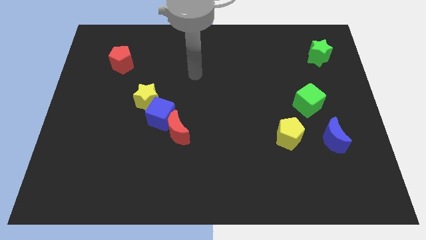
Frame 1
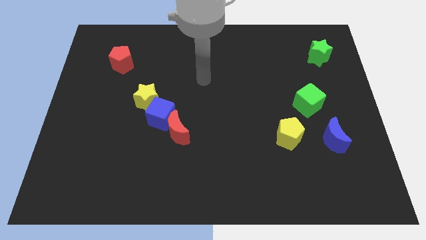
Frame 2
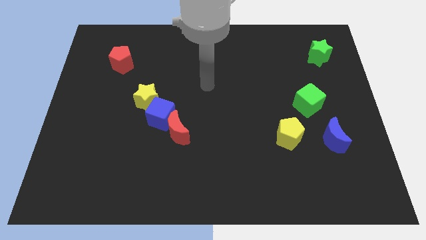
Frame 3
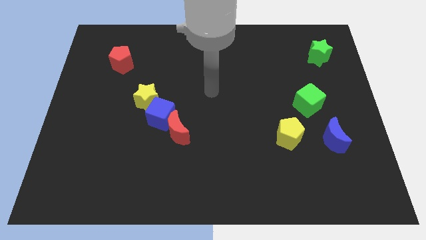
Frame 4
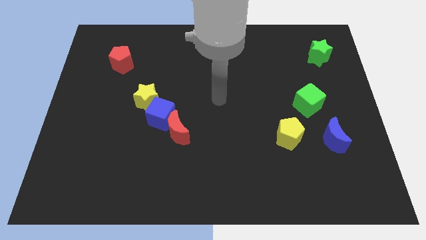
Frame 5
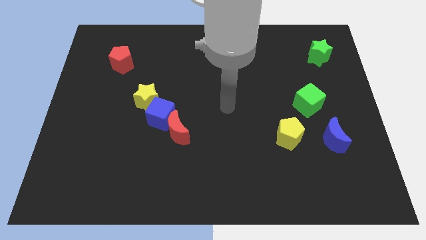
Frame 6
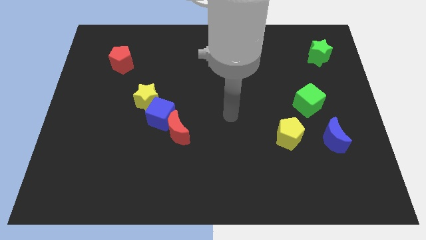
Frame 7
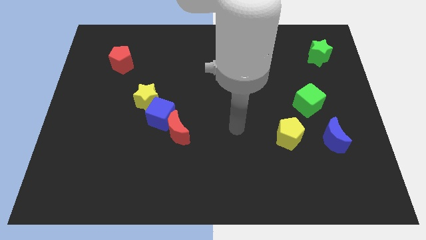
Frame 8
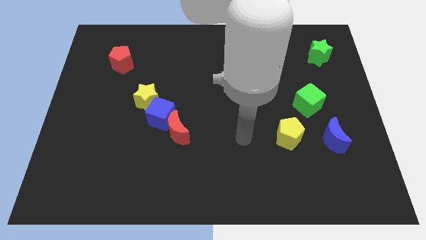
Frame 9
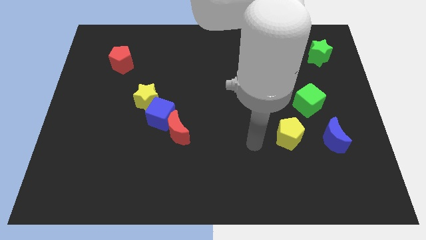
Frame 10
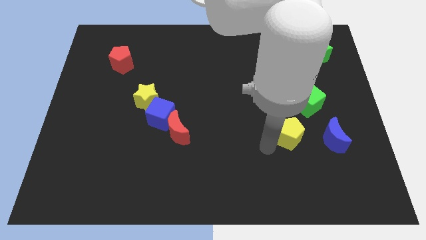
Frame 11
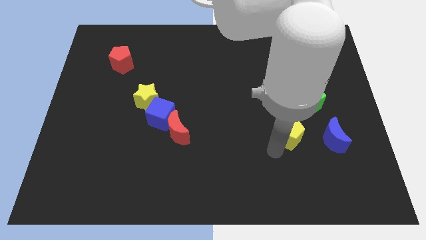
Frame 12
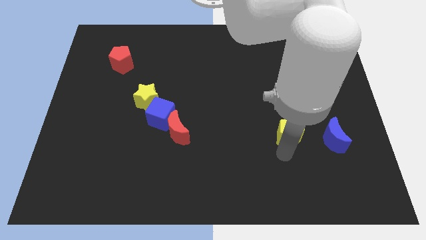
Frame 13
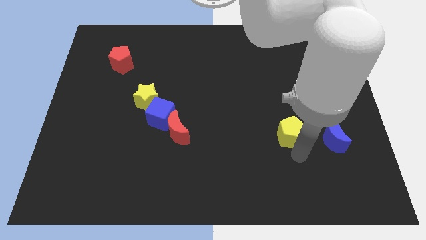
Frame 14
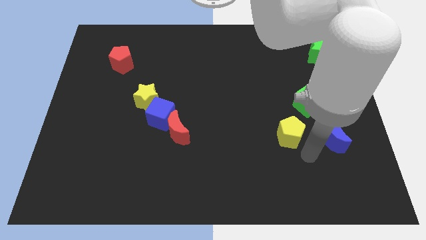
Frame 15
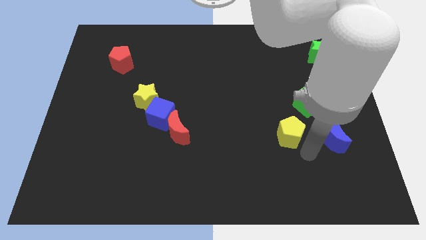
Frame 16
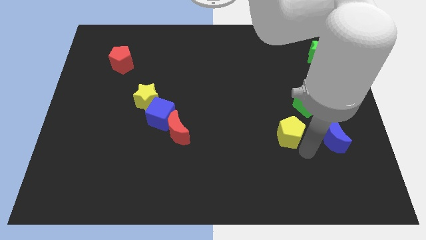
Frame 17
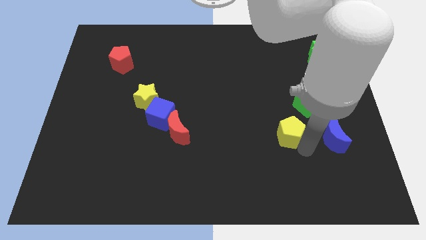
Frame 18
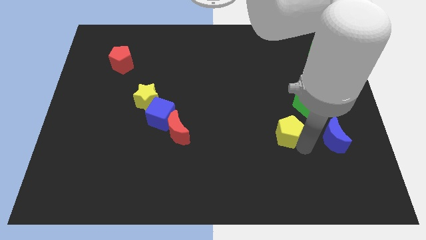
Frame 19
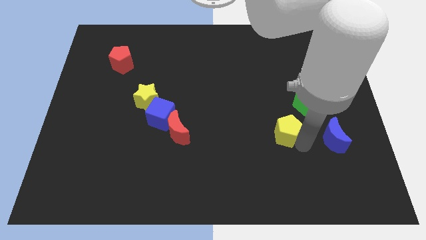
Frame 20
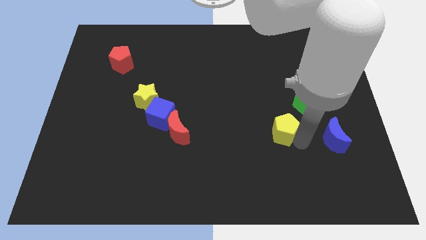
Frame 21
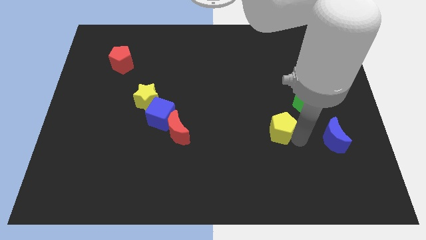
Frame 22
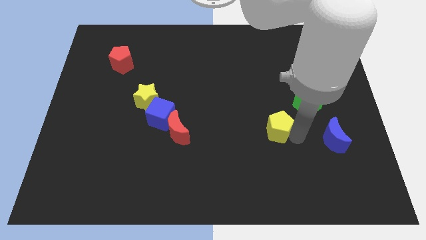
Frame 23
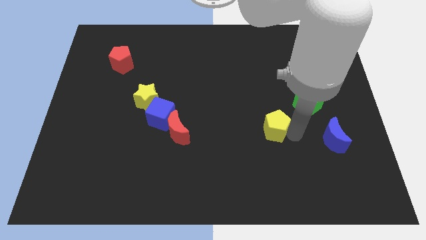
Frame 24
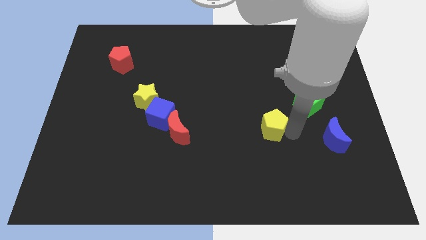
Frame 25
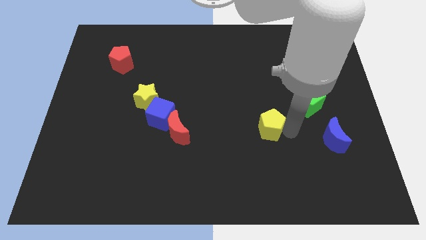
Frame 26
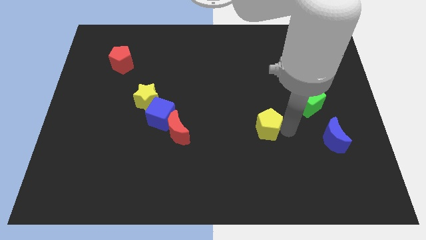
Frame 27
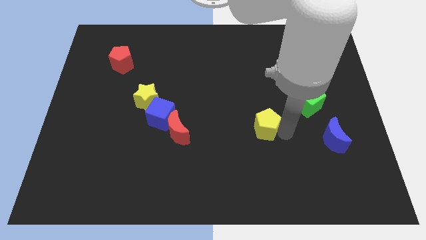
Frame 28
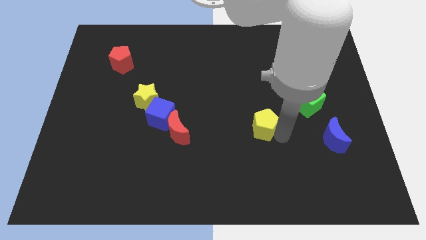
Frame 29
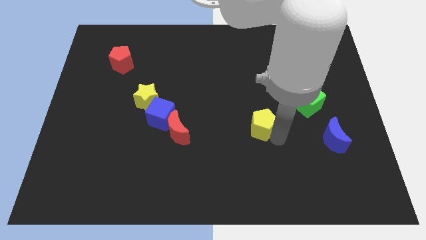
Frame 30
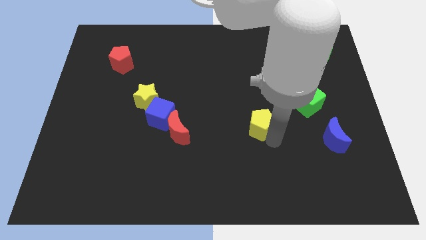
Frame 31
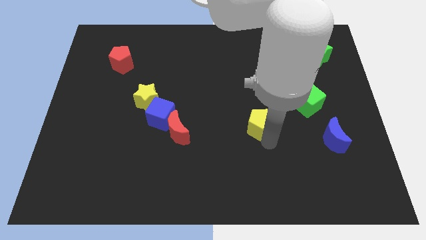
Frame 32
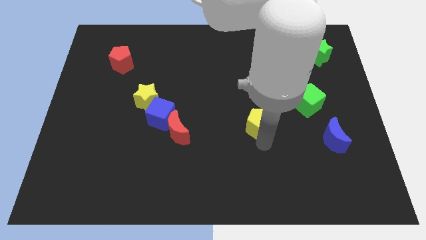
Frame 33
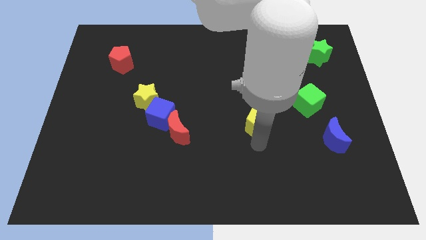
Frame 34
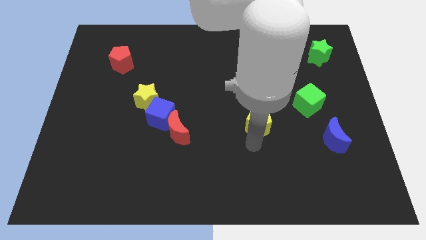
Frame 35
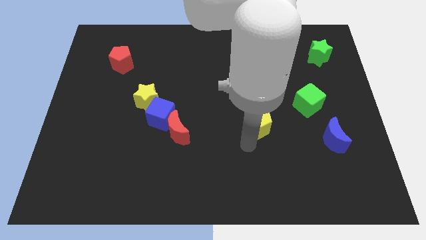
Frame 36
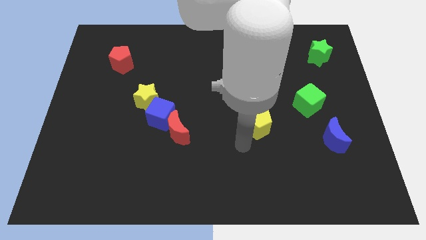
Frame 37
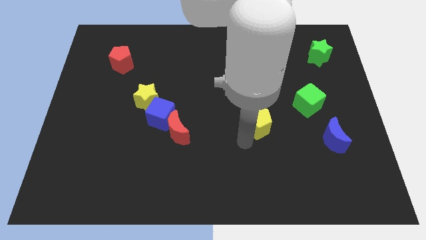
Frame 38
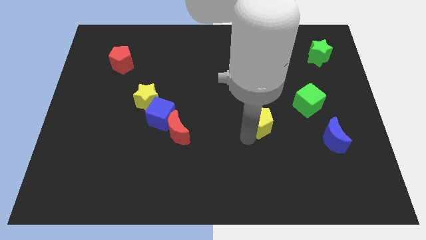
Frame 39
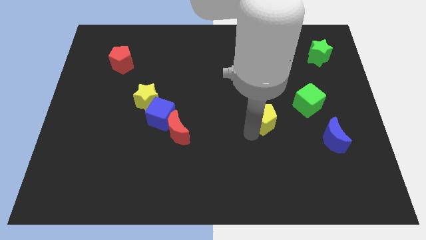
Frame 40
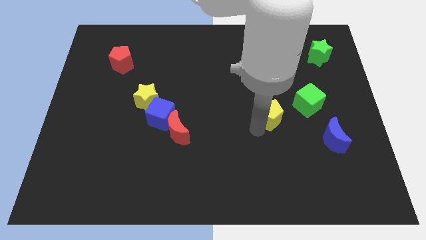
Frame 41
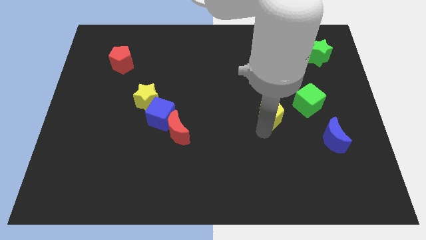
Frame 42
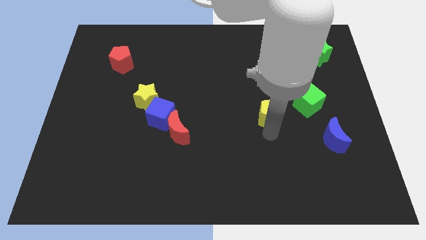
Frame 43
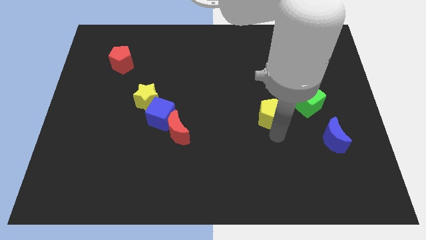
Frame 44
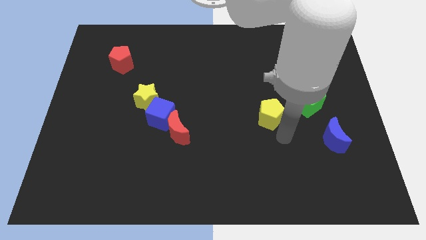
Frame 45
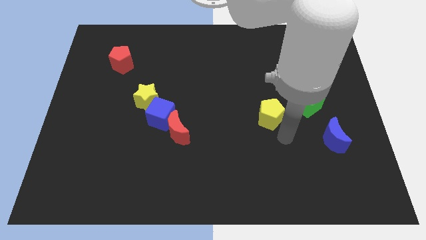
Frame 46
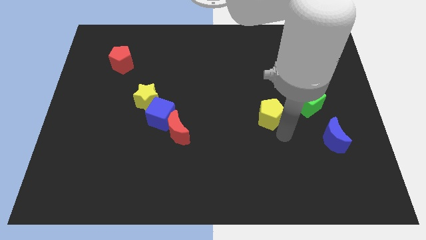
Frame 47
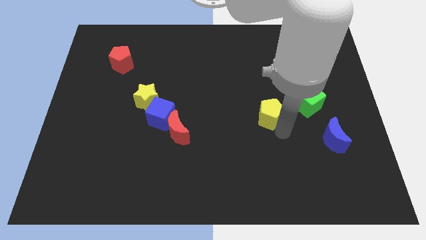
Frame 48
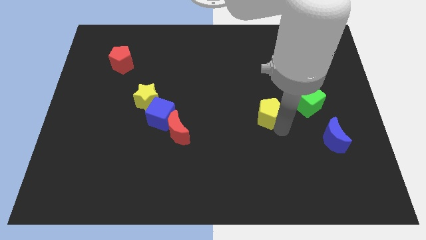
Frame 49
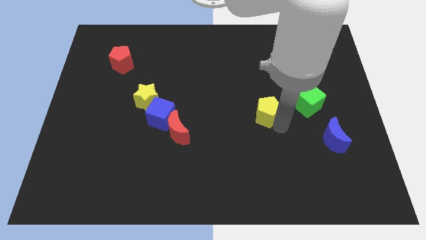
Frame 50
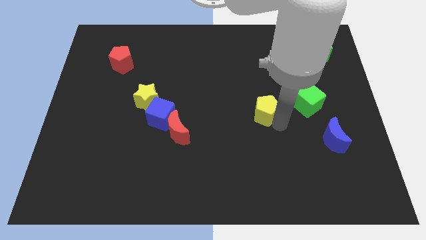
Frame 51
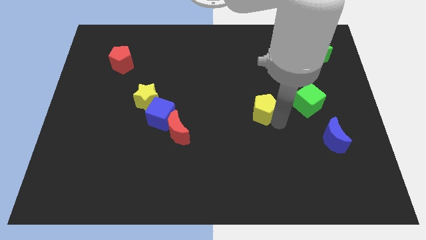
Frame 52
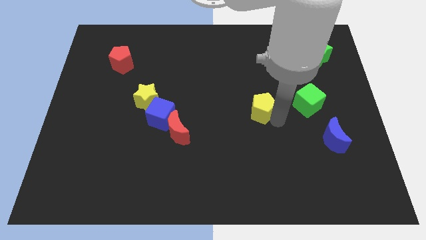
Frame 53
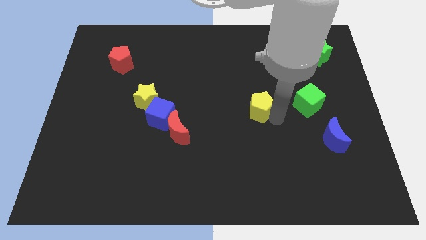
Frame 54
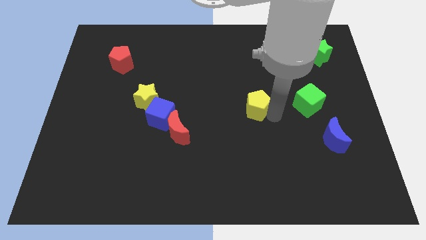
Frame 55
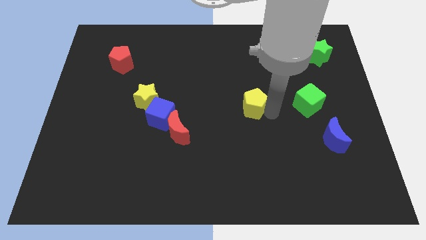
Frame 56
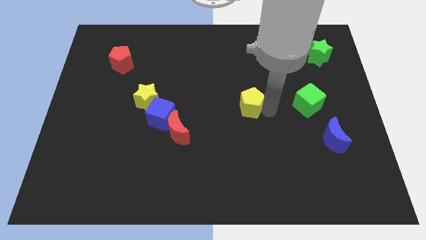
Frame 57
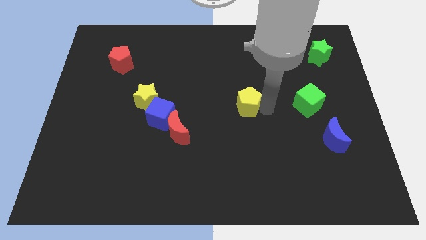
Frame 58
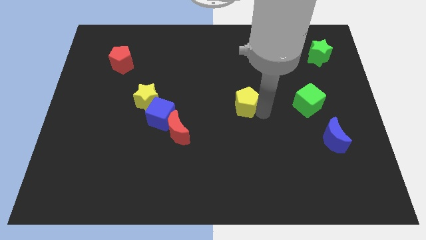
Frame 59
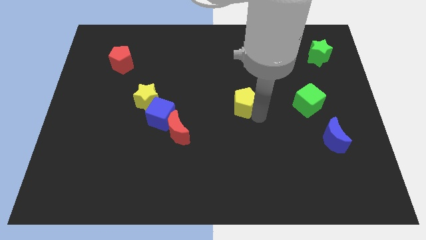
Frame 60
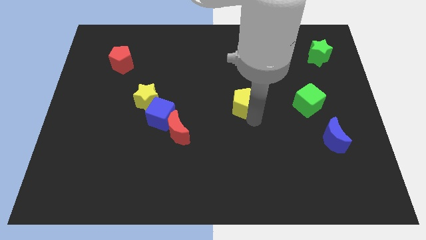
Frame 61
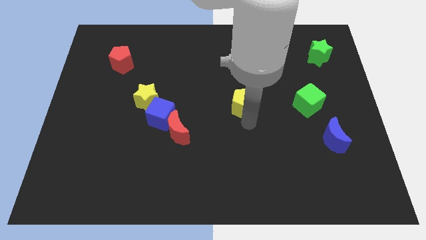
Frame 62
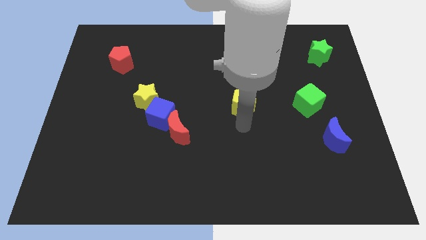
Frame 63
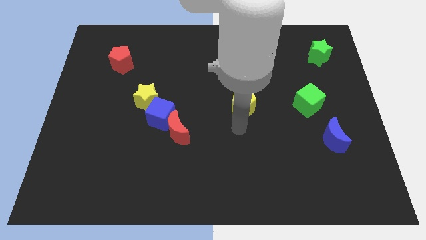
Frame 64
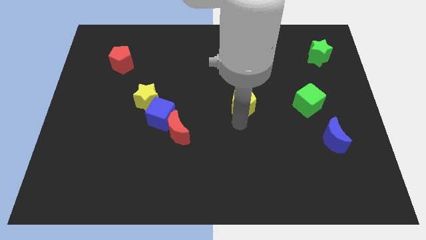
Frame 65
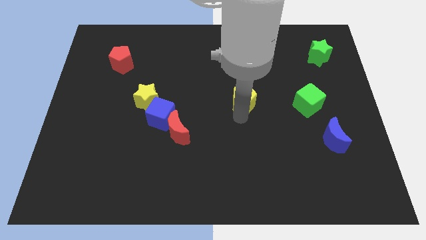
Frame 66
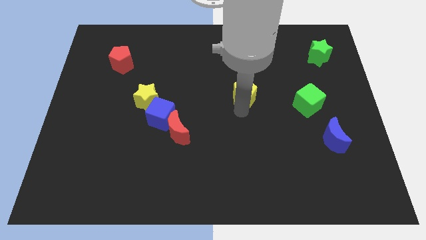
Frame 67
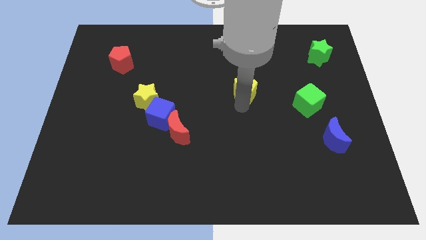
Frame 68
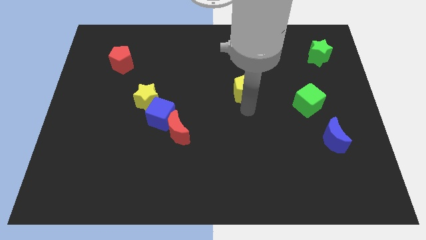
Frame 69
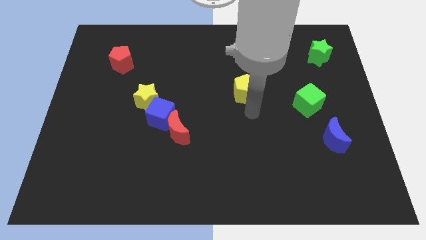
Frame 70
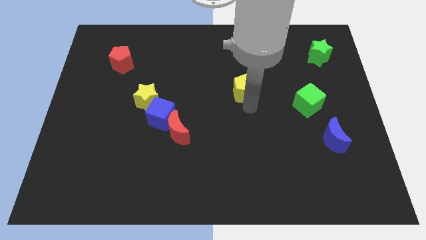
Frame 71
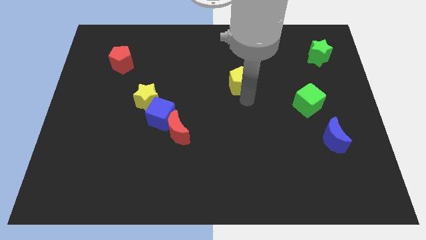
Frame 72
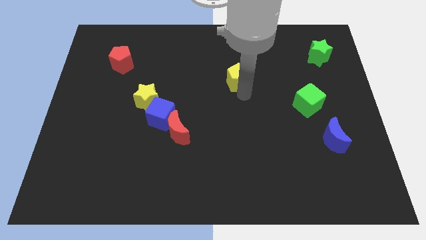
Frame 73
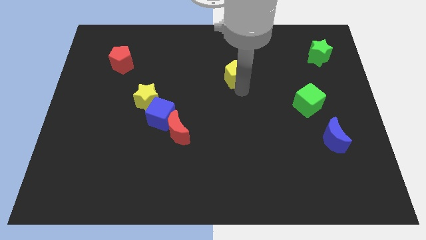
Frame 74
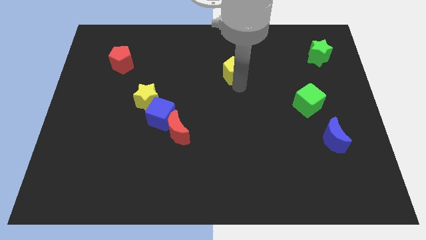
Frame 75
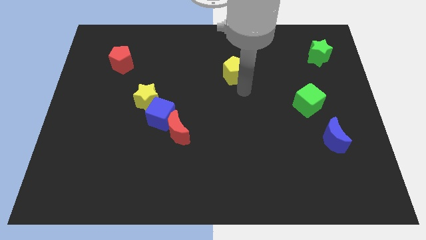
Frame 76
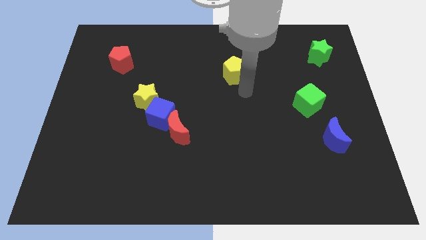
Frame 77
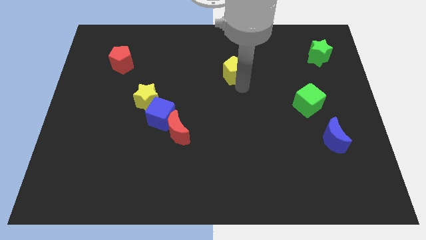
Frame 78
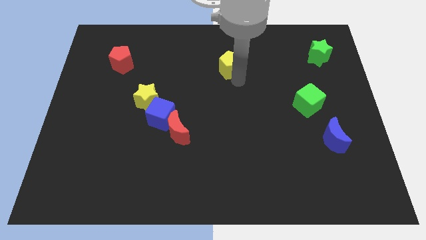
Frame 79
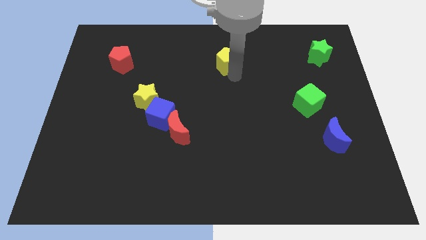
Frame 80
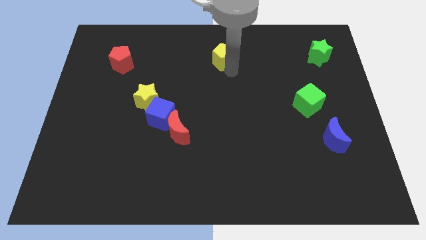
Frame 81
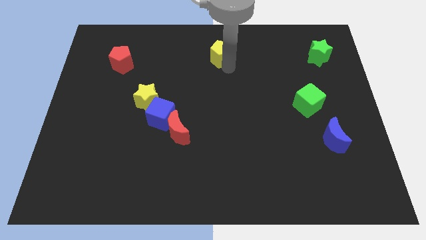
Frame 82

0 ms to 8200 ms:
put the yellow pentagon to the towards your base

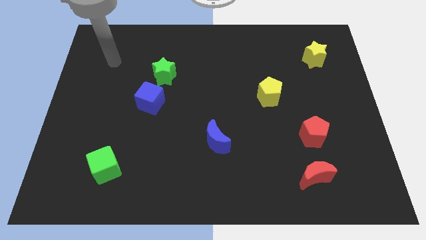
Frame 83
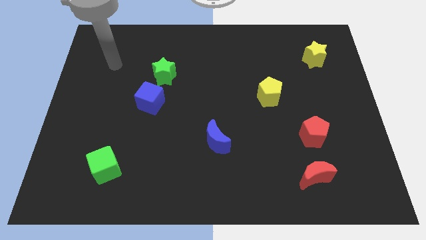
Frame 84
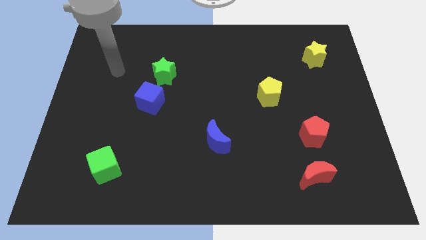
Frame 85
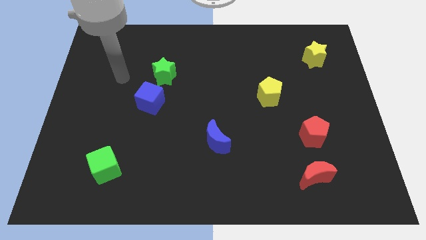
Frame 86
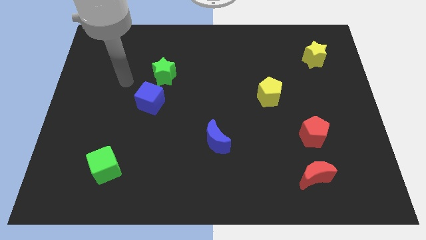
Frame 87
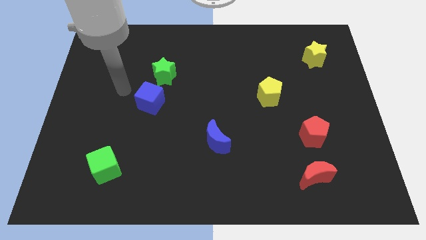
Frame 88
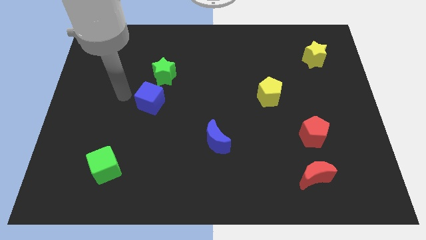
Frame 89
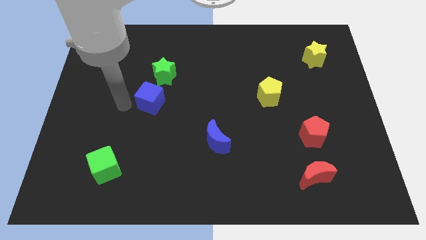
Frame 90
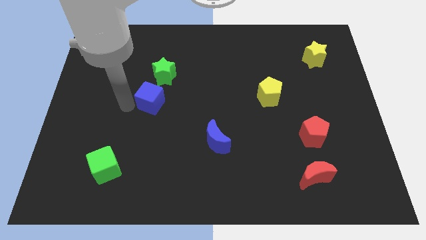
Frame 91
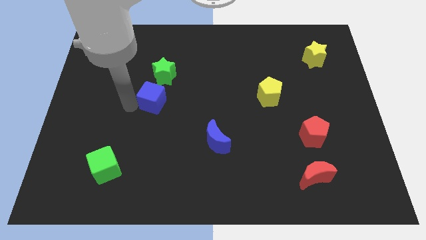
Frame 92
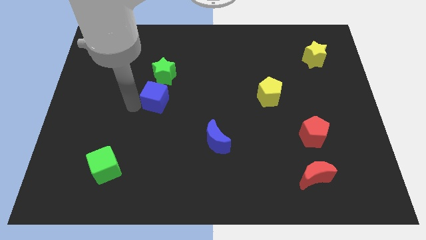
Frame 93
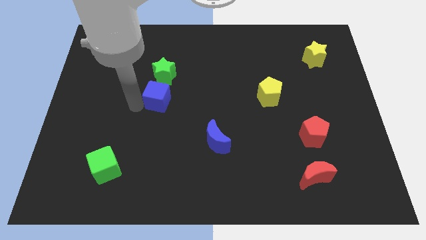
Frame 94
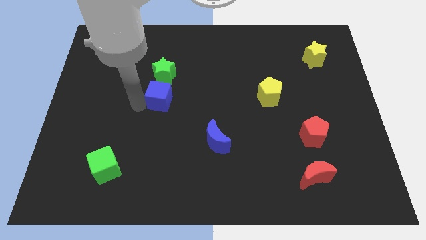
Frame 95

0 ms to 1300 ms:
push the blue cube to the center of the board
